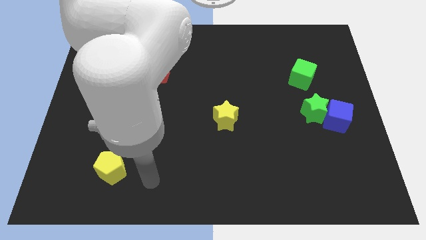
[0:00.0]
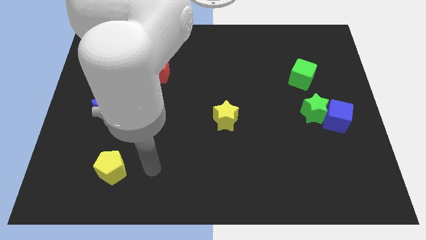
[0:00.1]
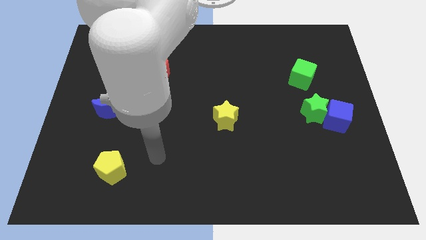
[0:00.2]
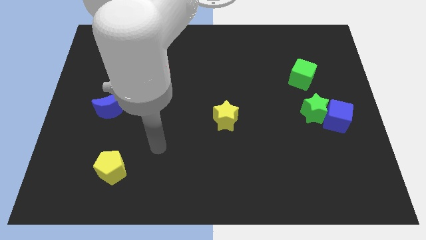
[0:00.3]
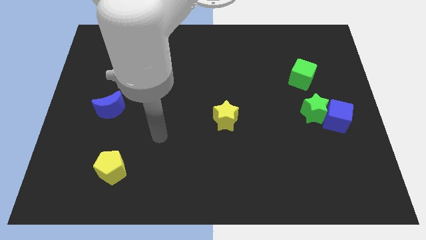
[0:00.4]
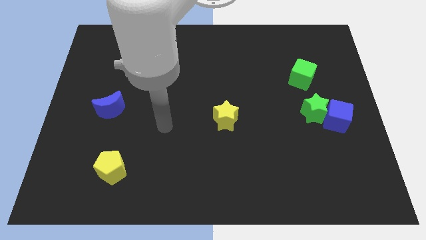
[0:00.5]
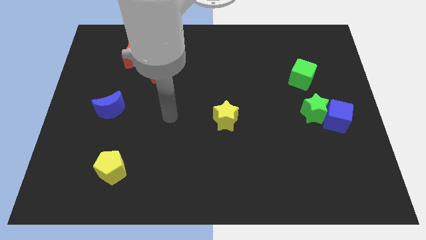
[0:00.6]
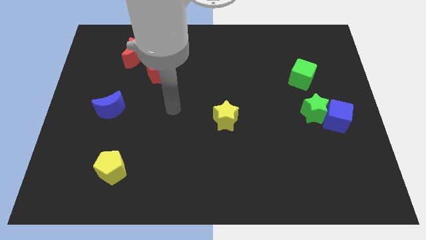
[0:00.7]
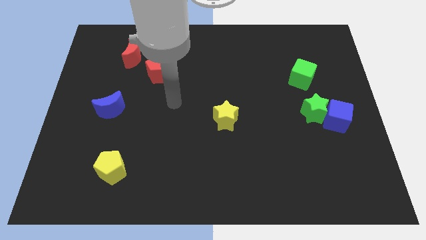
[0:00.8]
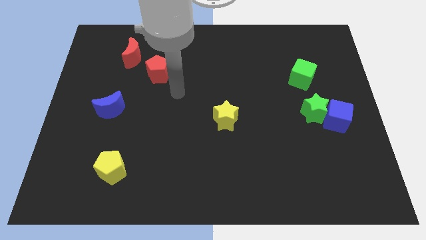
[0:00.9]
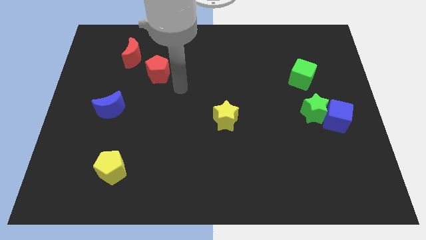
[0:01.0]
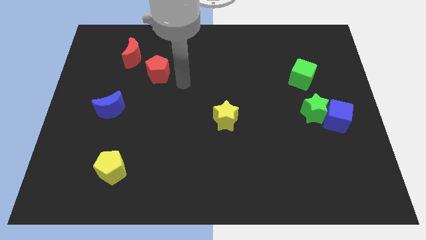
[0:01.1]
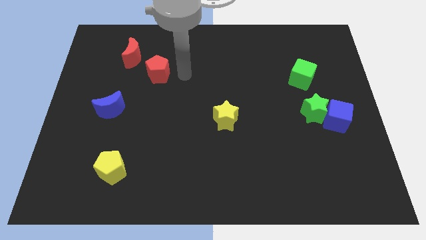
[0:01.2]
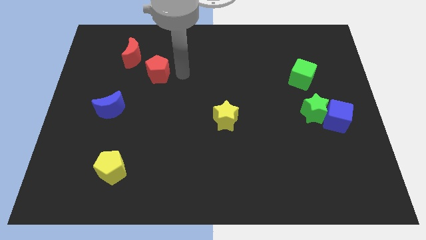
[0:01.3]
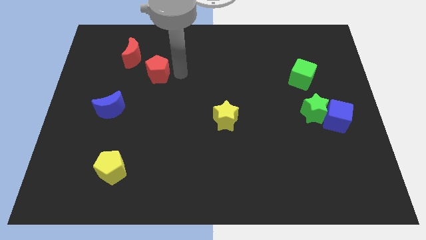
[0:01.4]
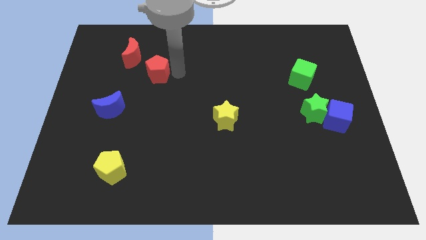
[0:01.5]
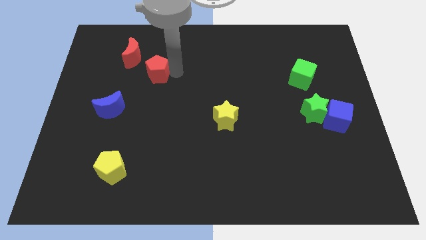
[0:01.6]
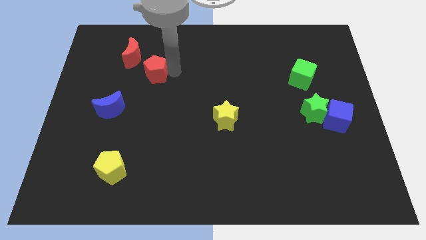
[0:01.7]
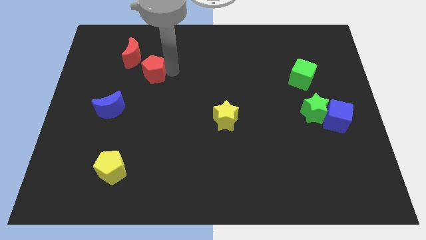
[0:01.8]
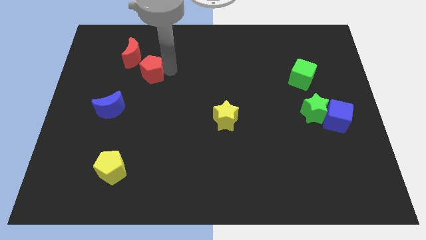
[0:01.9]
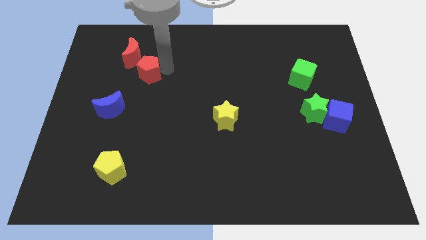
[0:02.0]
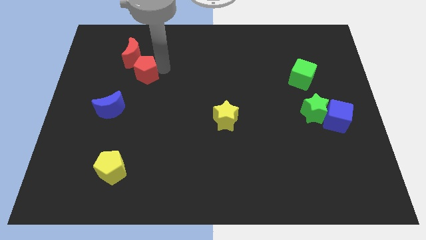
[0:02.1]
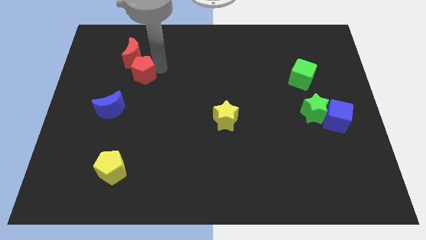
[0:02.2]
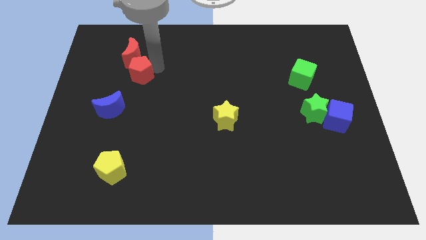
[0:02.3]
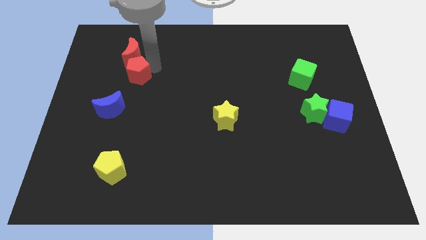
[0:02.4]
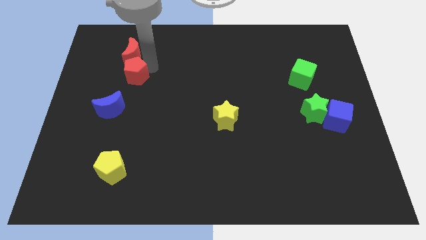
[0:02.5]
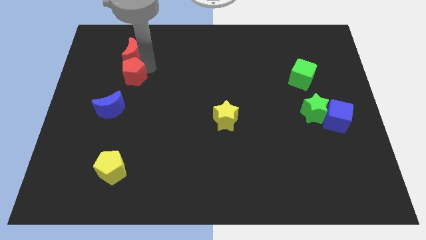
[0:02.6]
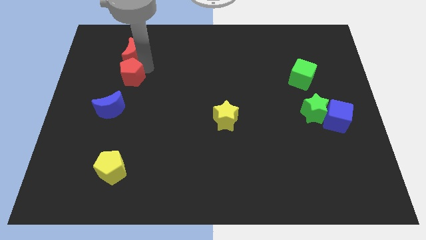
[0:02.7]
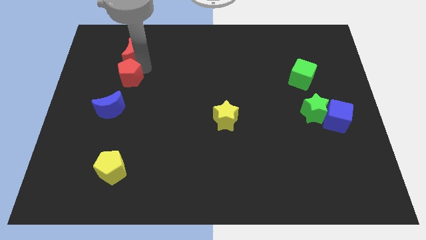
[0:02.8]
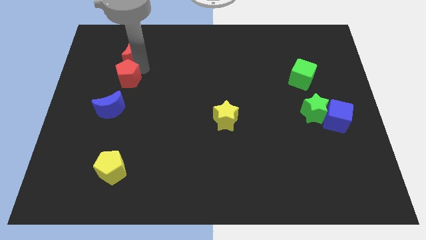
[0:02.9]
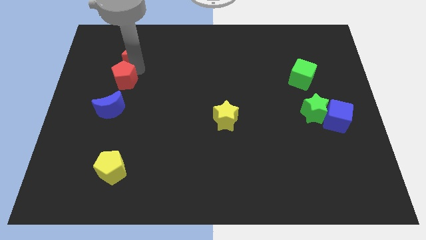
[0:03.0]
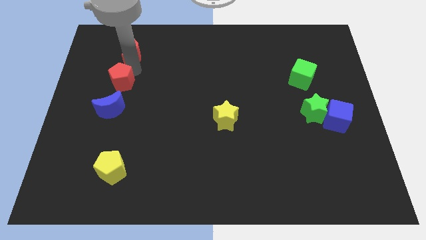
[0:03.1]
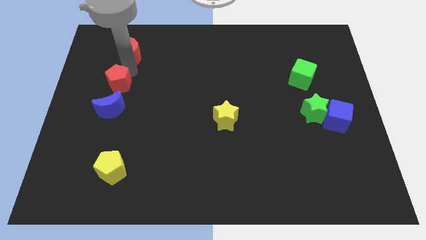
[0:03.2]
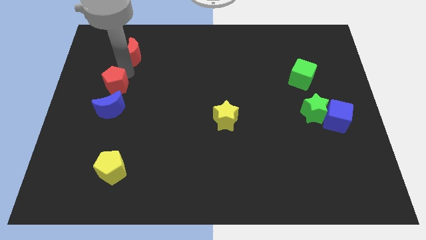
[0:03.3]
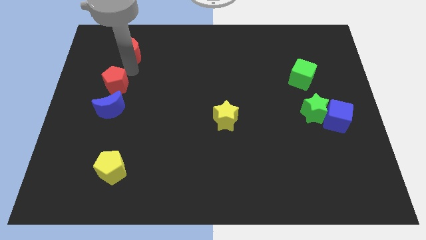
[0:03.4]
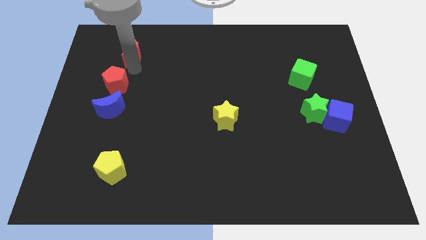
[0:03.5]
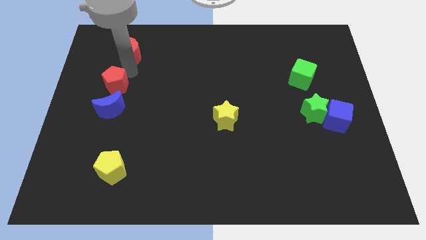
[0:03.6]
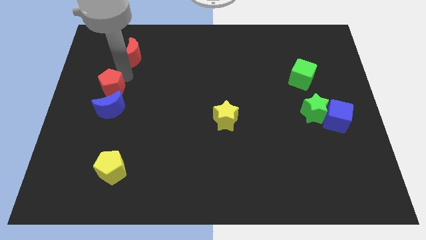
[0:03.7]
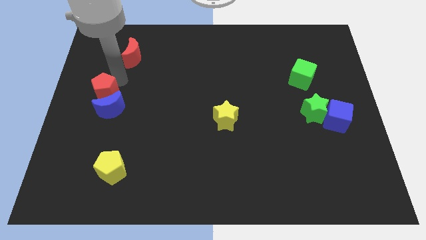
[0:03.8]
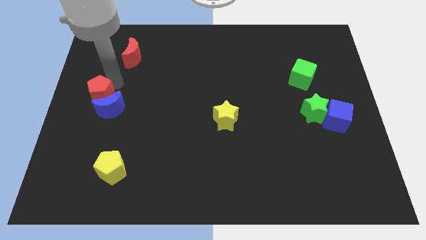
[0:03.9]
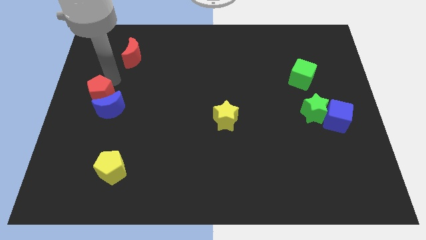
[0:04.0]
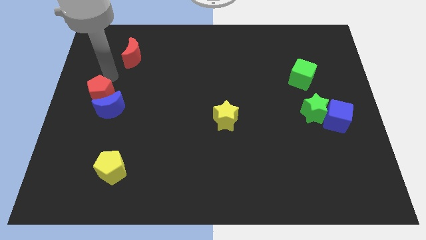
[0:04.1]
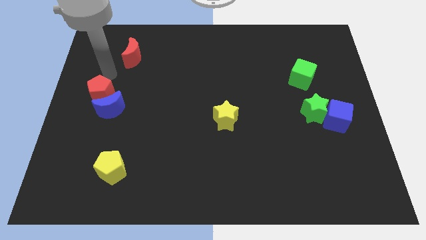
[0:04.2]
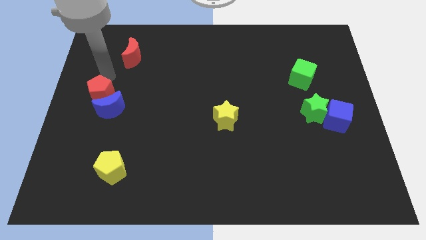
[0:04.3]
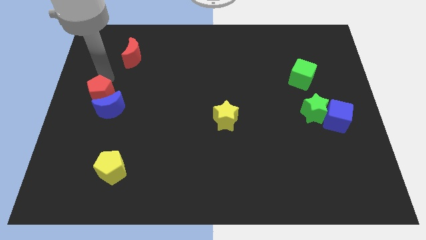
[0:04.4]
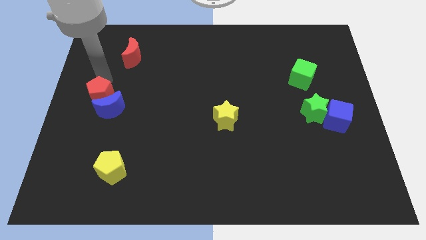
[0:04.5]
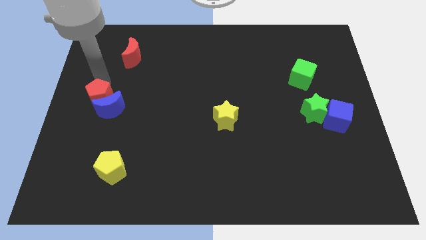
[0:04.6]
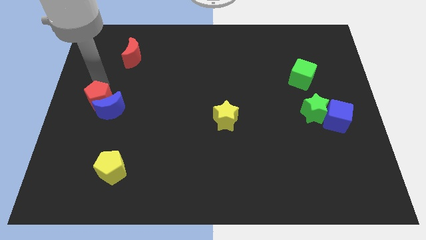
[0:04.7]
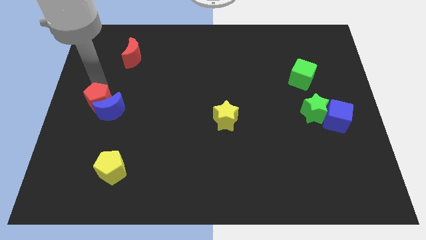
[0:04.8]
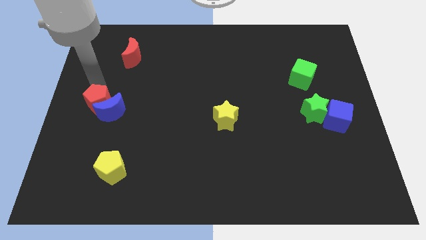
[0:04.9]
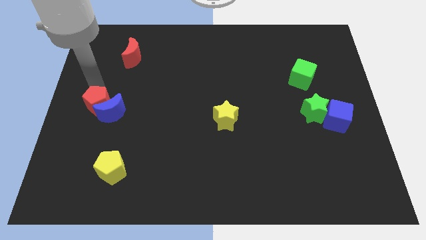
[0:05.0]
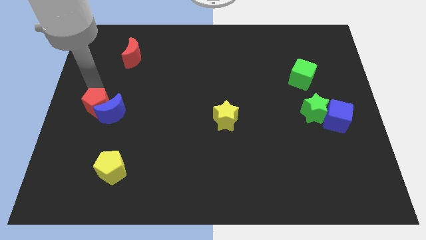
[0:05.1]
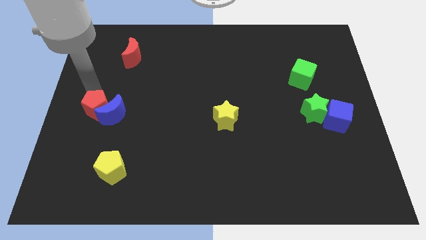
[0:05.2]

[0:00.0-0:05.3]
slide the red pentagon diagonally down and to the left of the blue moon

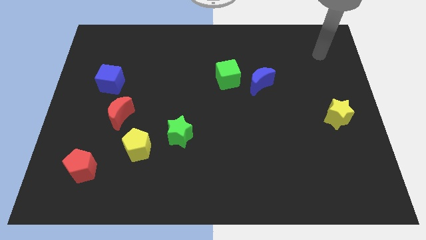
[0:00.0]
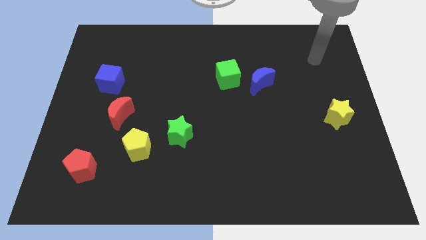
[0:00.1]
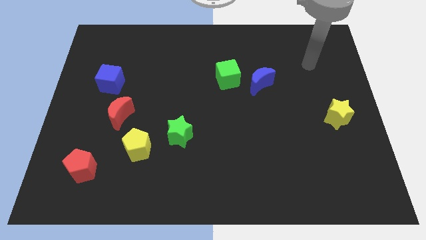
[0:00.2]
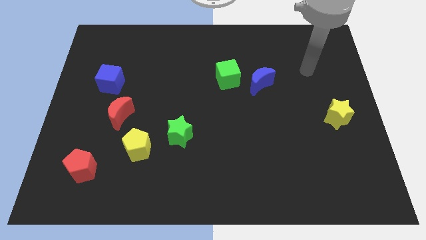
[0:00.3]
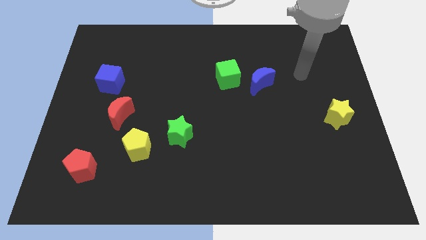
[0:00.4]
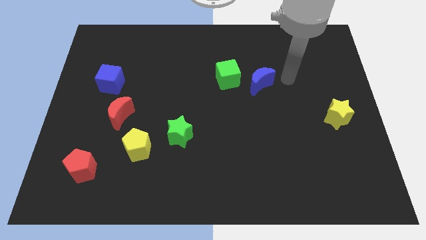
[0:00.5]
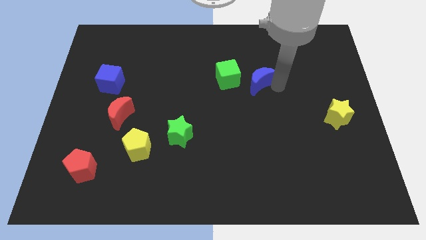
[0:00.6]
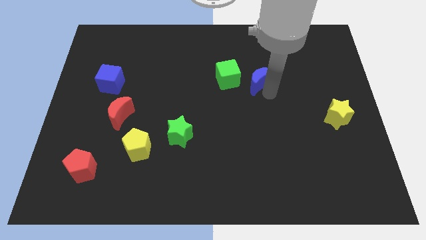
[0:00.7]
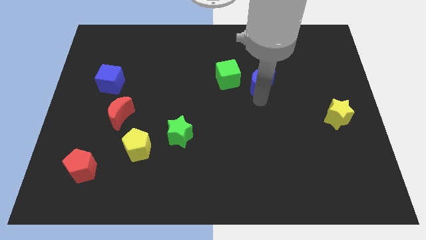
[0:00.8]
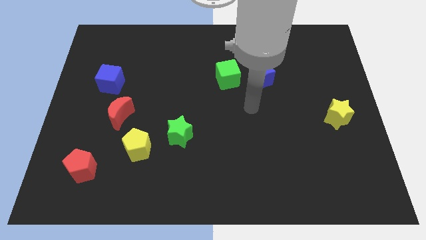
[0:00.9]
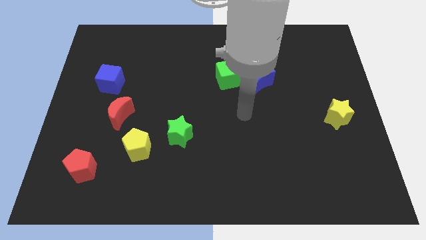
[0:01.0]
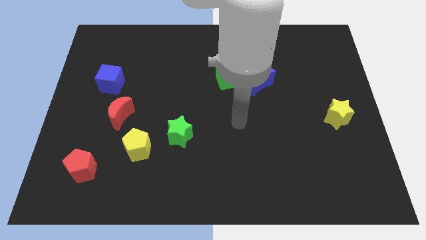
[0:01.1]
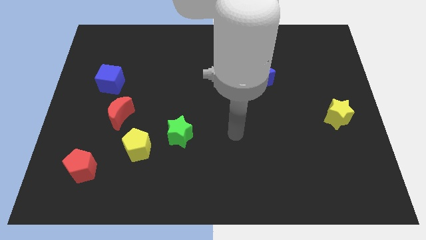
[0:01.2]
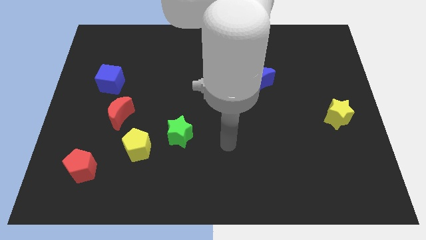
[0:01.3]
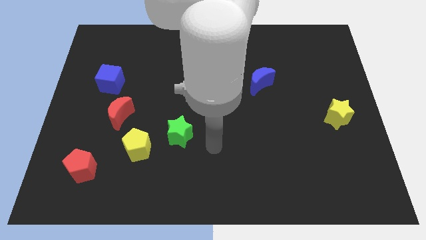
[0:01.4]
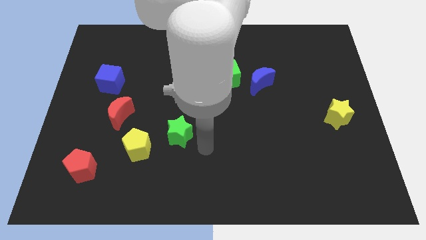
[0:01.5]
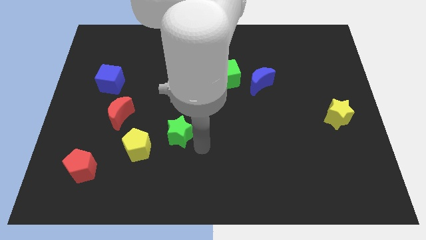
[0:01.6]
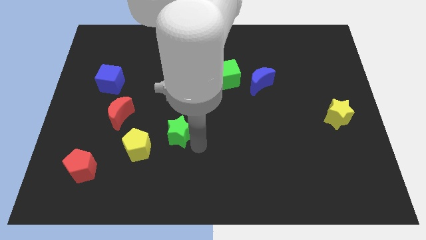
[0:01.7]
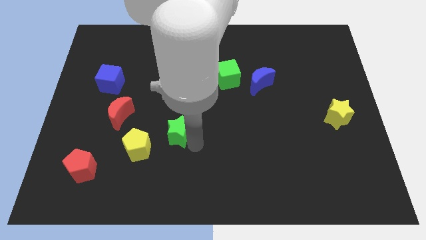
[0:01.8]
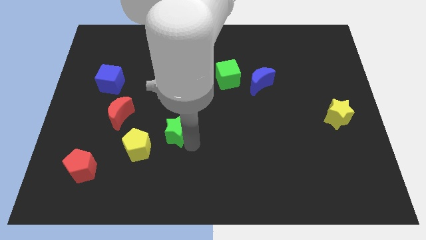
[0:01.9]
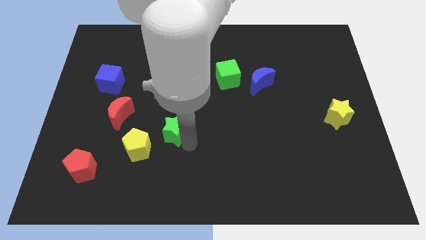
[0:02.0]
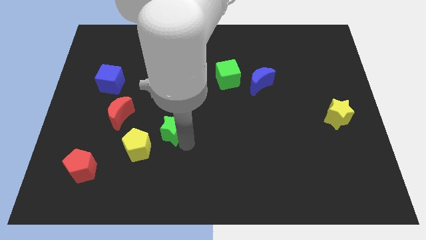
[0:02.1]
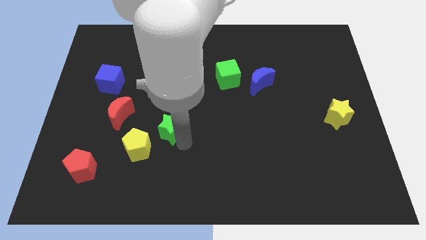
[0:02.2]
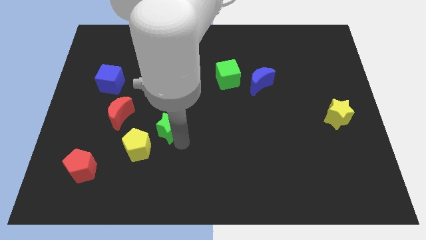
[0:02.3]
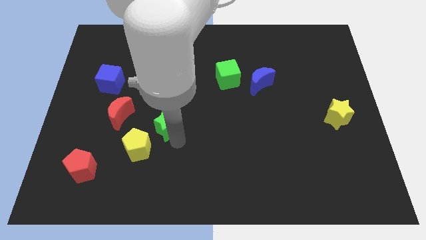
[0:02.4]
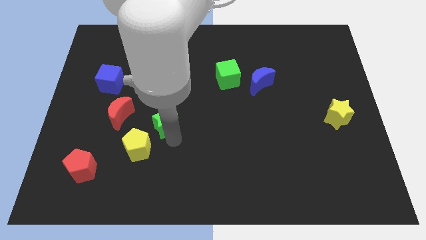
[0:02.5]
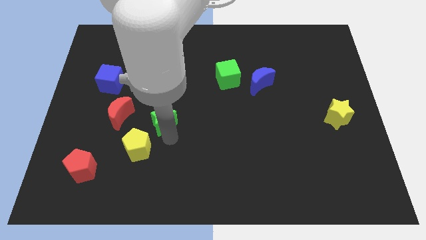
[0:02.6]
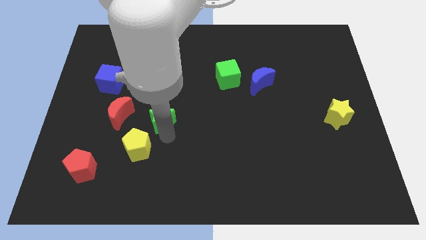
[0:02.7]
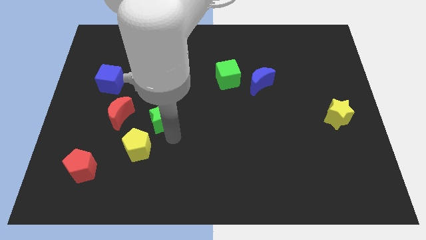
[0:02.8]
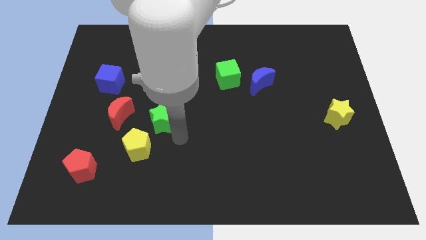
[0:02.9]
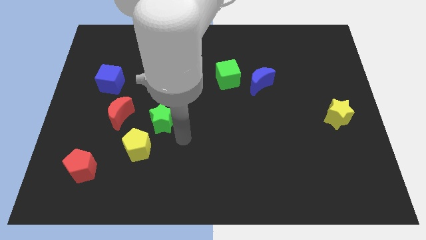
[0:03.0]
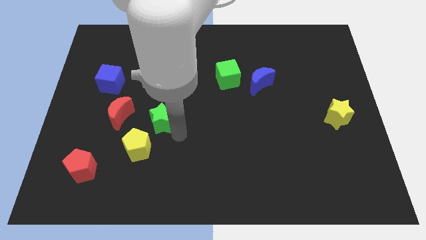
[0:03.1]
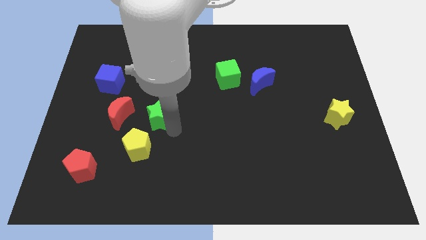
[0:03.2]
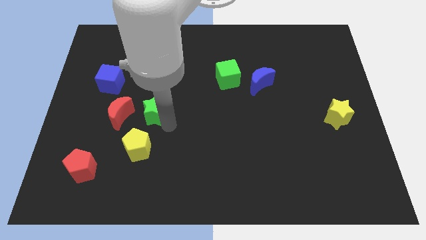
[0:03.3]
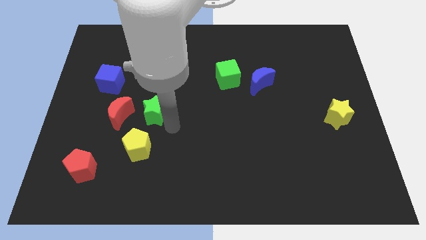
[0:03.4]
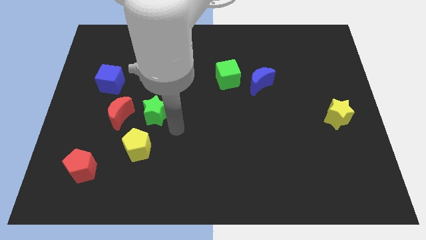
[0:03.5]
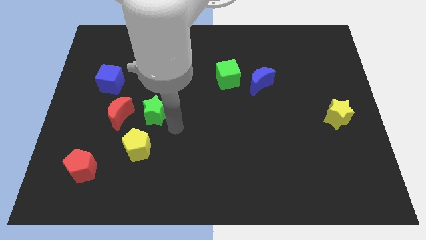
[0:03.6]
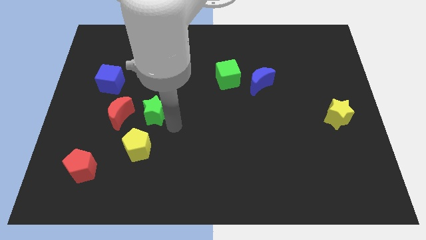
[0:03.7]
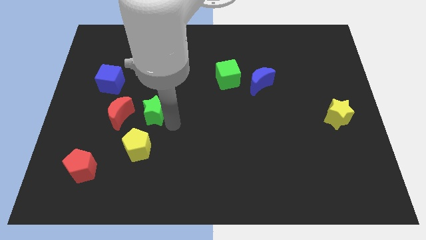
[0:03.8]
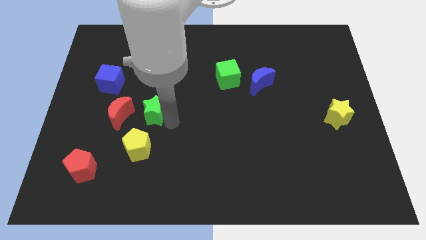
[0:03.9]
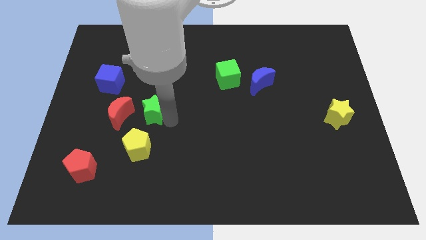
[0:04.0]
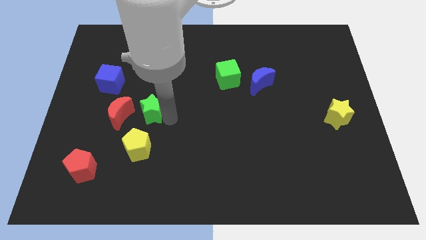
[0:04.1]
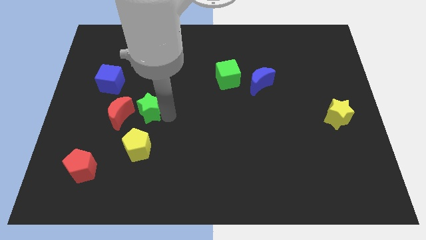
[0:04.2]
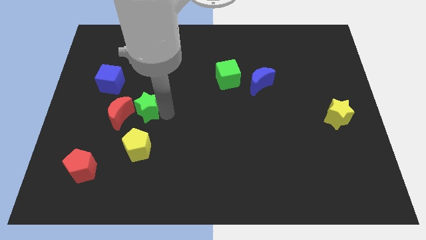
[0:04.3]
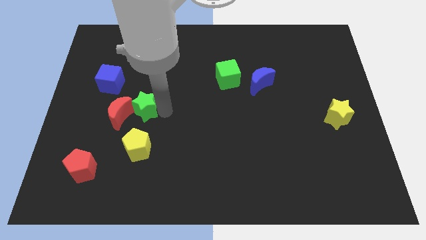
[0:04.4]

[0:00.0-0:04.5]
put the green star to the bottom right side of the blue cube
